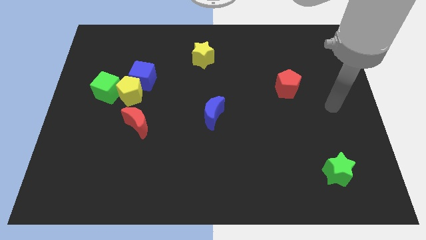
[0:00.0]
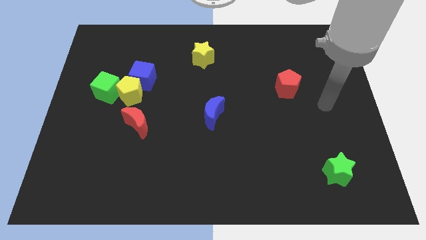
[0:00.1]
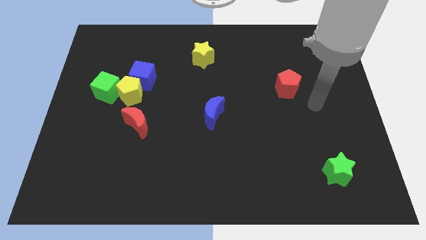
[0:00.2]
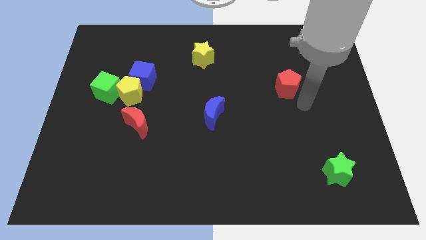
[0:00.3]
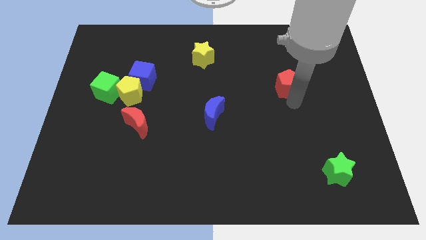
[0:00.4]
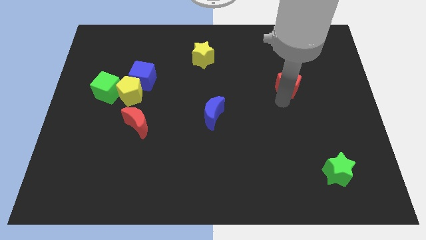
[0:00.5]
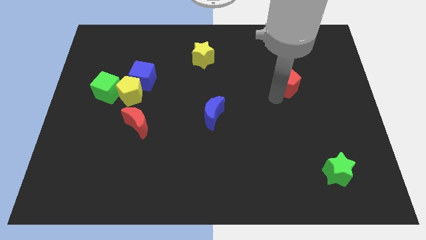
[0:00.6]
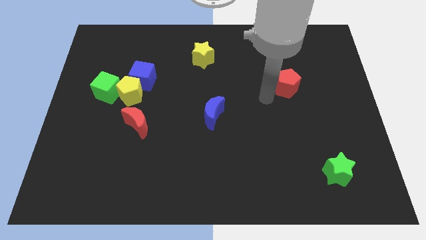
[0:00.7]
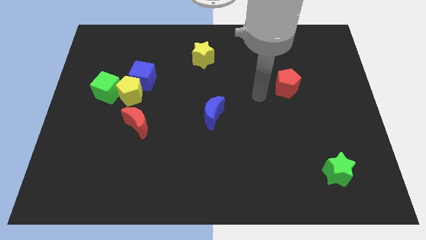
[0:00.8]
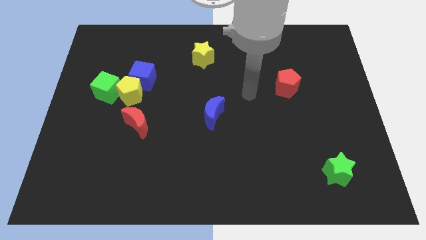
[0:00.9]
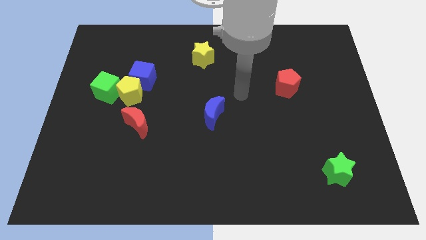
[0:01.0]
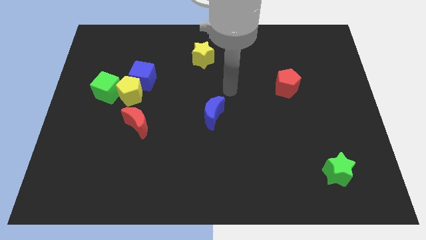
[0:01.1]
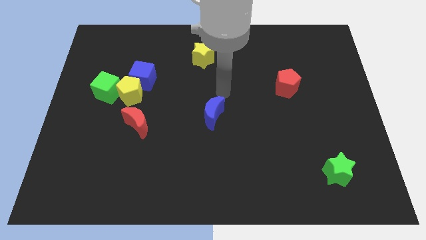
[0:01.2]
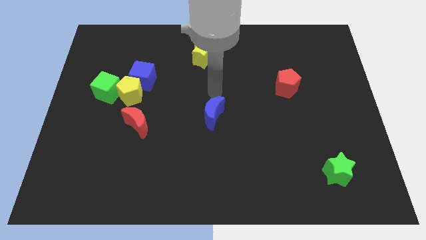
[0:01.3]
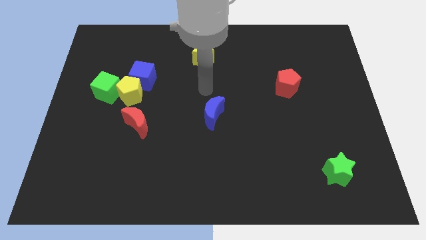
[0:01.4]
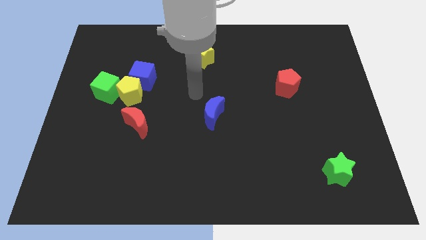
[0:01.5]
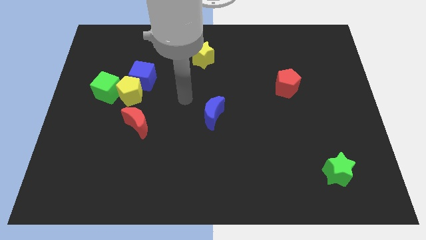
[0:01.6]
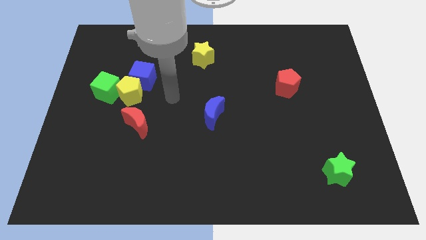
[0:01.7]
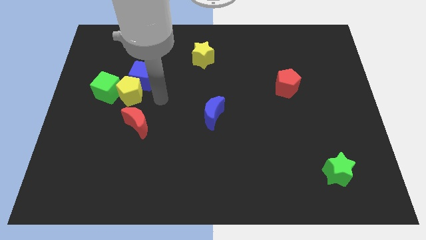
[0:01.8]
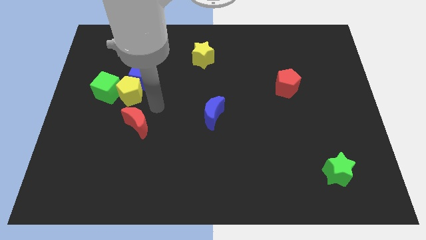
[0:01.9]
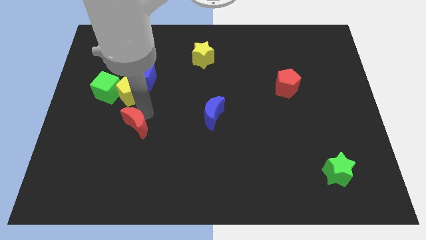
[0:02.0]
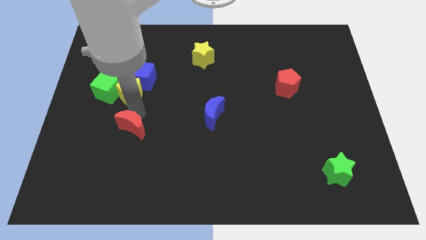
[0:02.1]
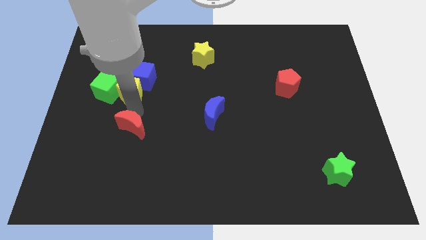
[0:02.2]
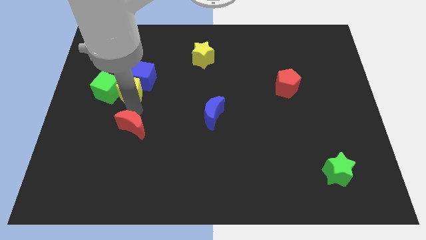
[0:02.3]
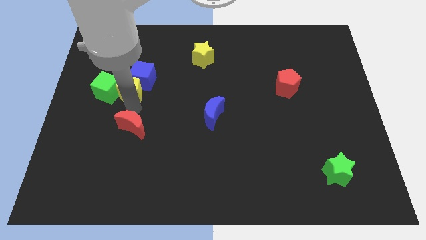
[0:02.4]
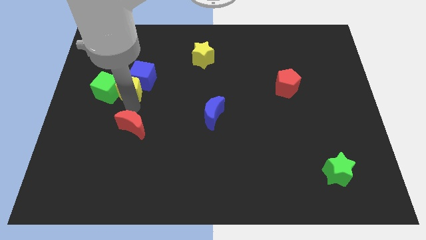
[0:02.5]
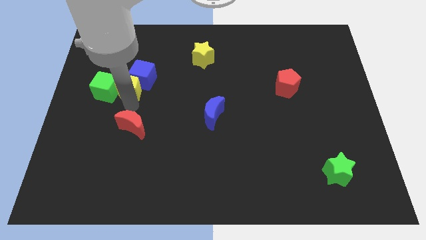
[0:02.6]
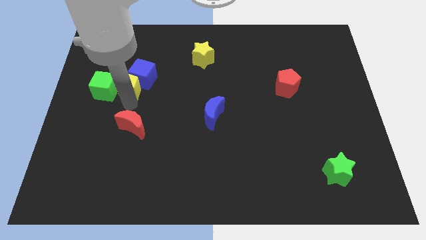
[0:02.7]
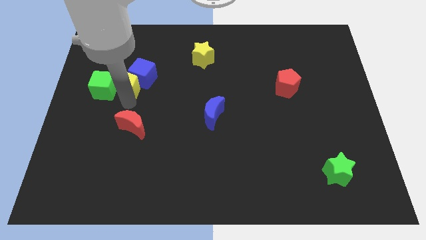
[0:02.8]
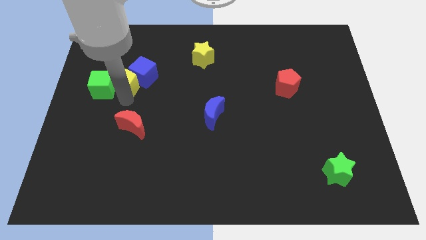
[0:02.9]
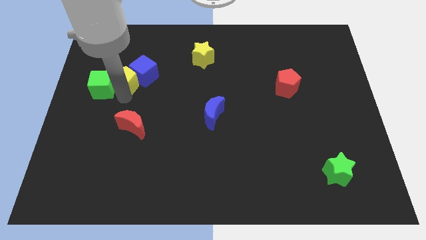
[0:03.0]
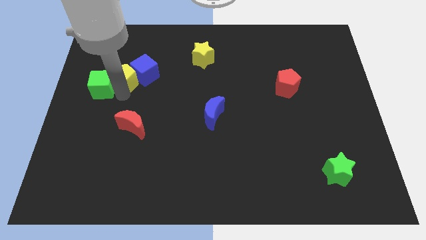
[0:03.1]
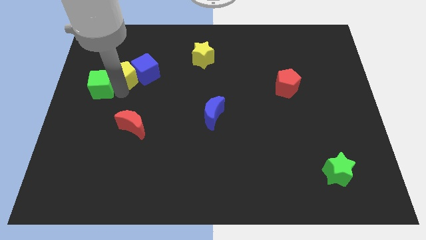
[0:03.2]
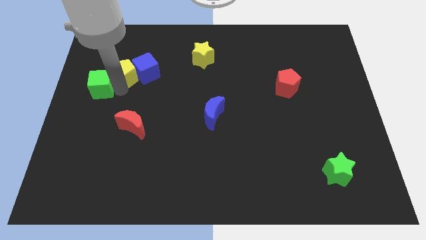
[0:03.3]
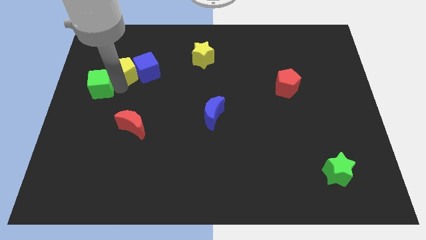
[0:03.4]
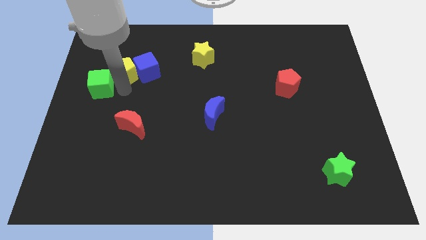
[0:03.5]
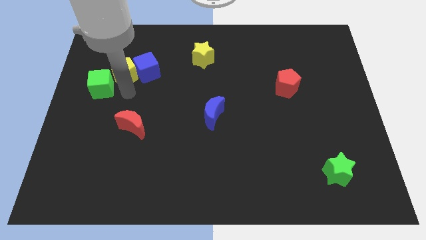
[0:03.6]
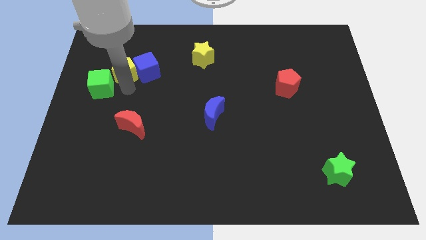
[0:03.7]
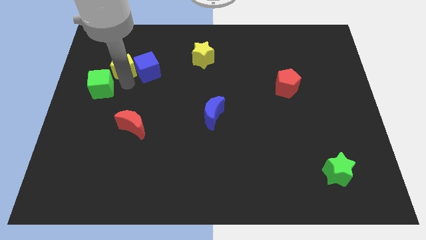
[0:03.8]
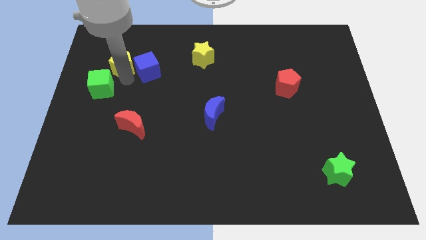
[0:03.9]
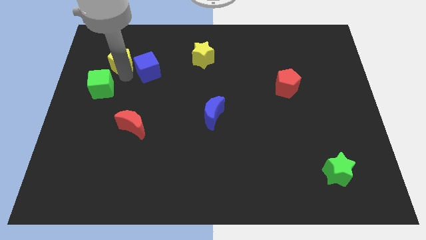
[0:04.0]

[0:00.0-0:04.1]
separate the yellow pentagon from the blue cube, green cube, and red moon

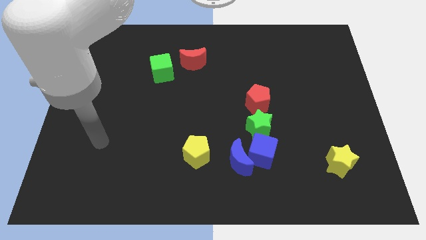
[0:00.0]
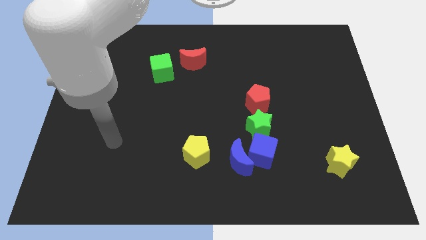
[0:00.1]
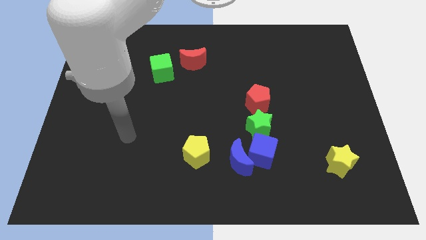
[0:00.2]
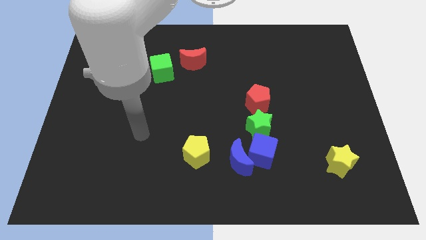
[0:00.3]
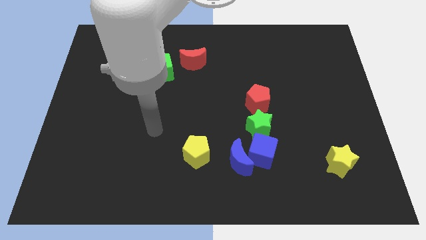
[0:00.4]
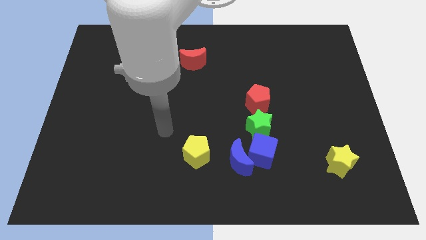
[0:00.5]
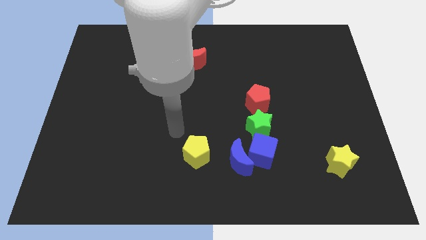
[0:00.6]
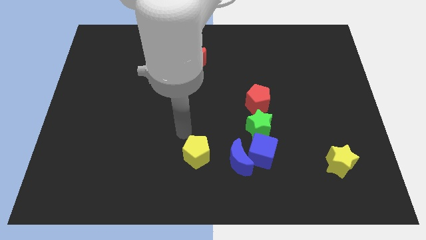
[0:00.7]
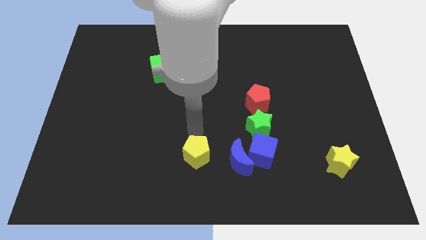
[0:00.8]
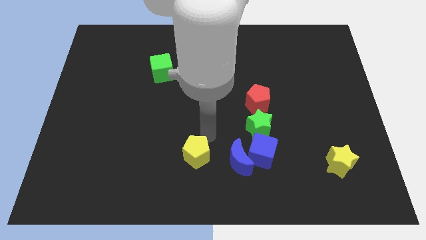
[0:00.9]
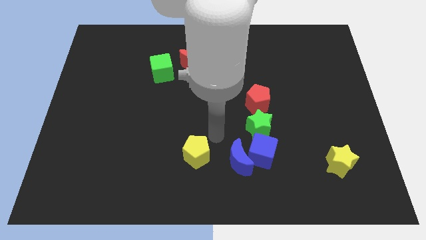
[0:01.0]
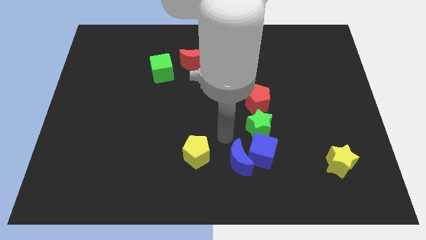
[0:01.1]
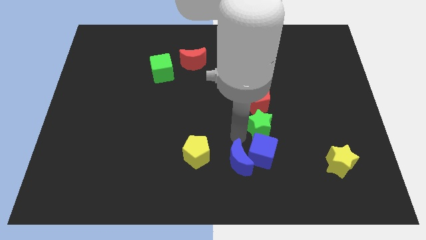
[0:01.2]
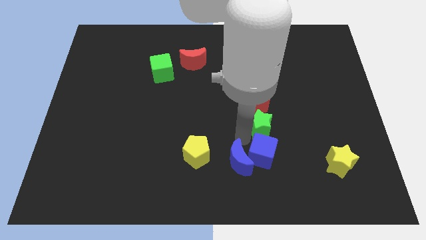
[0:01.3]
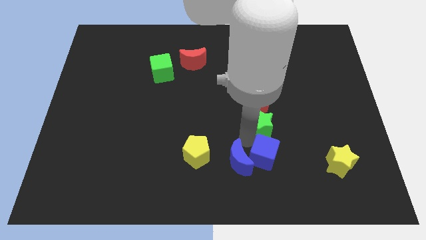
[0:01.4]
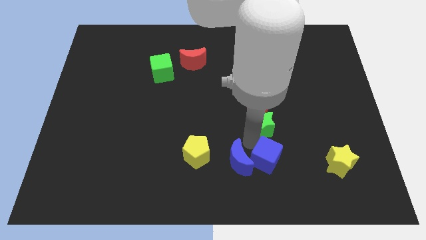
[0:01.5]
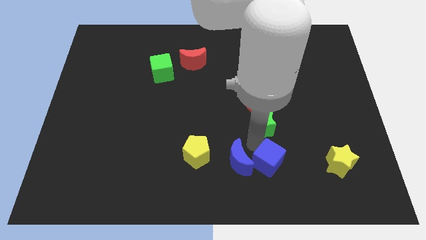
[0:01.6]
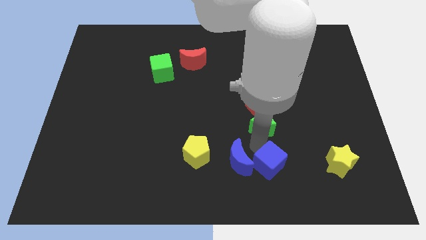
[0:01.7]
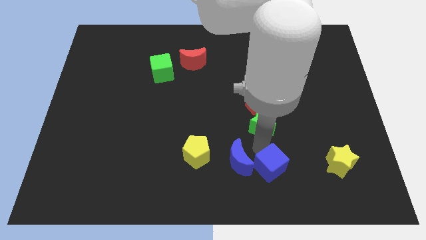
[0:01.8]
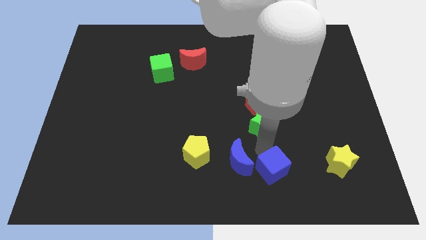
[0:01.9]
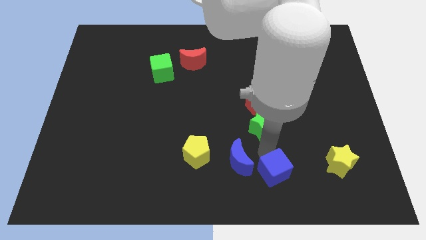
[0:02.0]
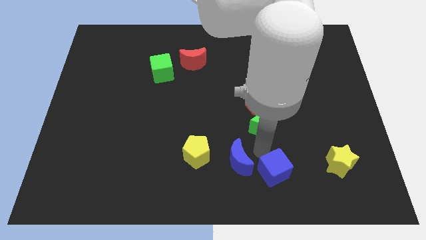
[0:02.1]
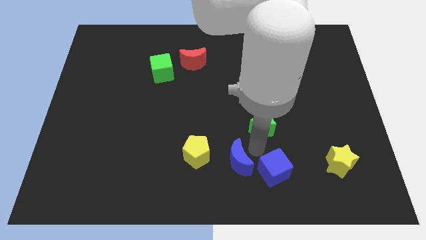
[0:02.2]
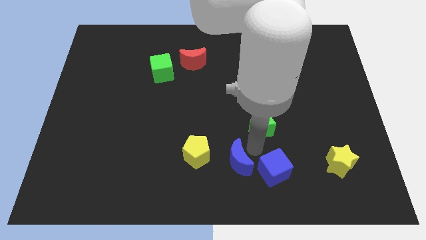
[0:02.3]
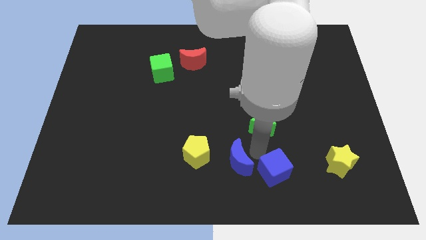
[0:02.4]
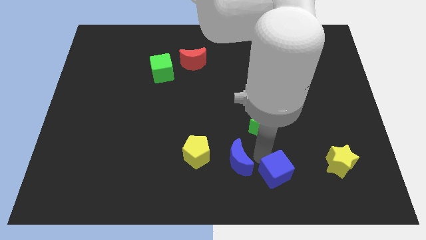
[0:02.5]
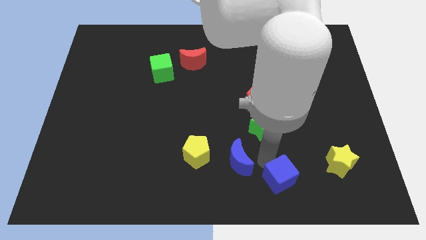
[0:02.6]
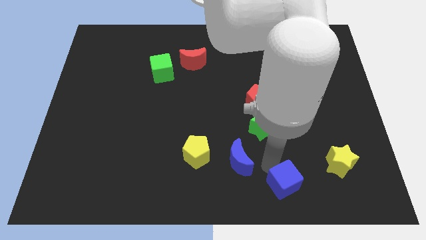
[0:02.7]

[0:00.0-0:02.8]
move the blue cube away from the blue moon and green star

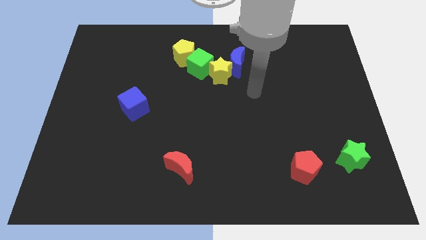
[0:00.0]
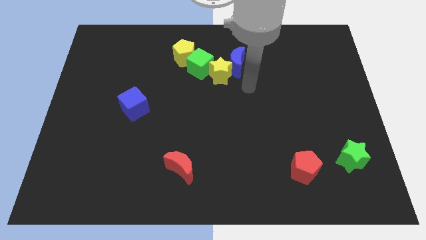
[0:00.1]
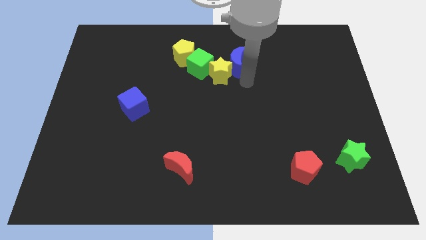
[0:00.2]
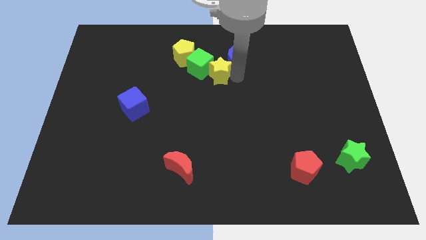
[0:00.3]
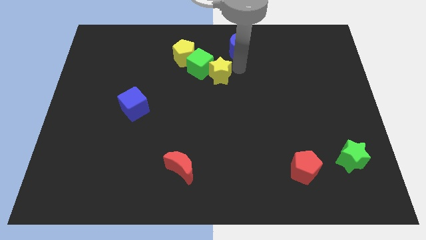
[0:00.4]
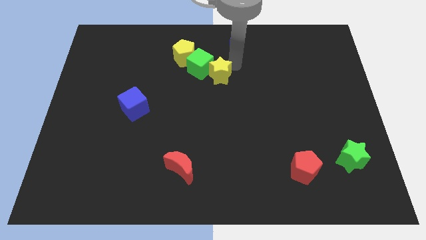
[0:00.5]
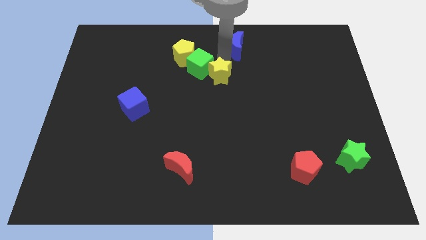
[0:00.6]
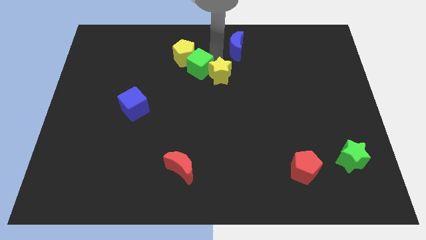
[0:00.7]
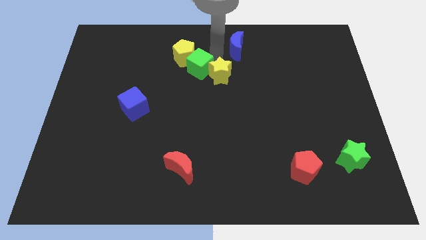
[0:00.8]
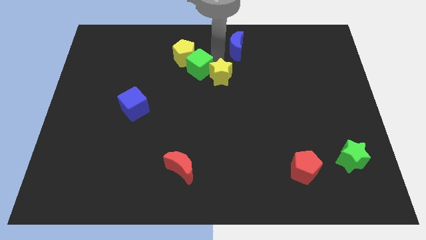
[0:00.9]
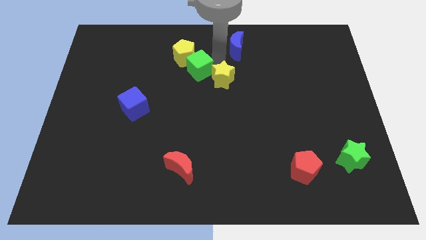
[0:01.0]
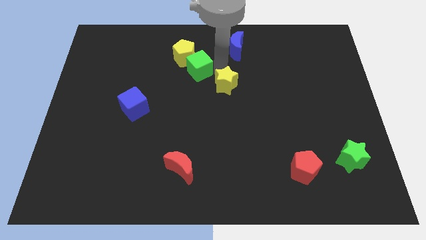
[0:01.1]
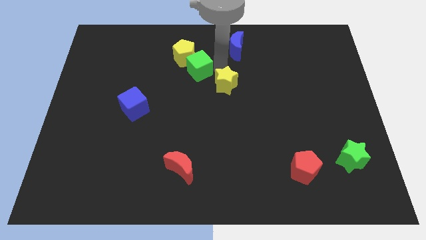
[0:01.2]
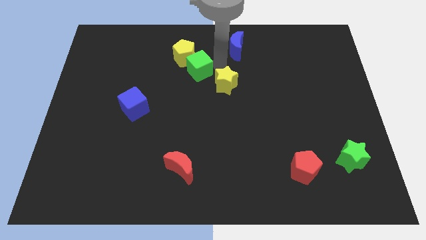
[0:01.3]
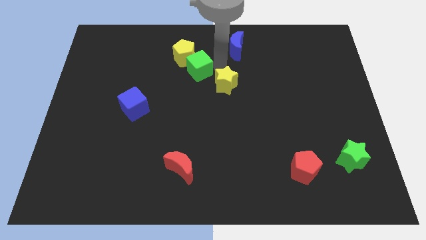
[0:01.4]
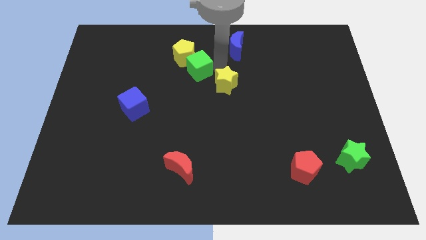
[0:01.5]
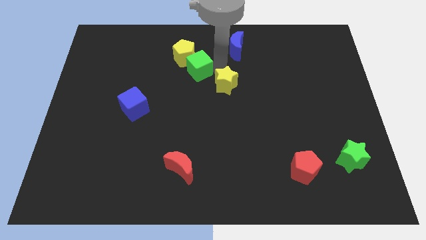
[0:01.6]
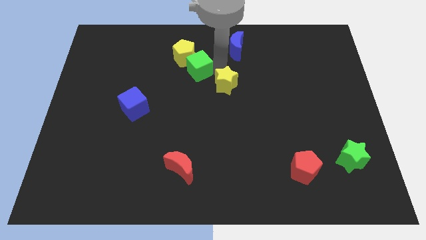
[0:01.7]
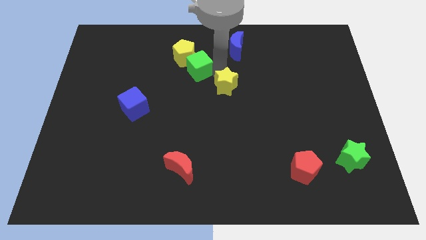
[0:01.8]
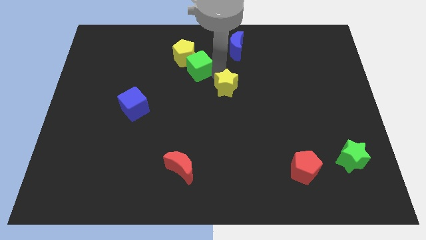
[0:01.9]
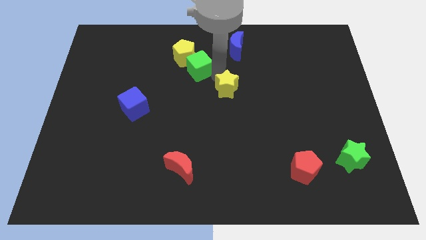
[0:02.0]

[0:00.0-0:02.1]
separate the yellow star from the blue moon and green cube

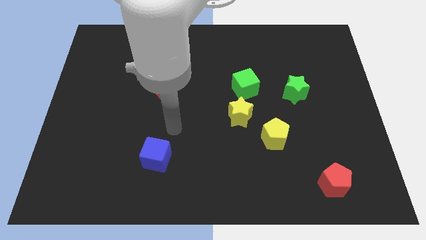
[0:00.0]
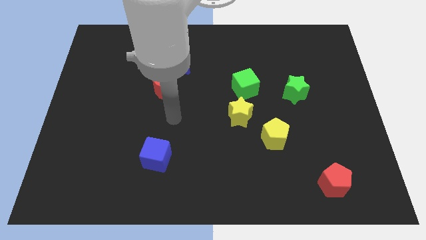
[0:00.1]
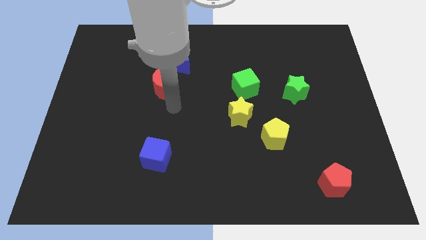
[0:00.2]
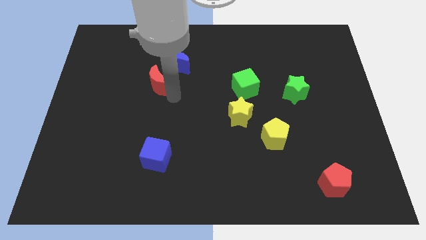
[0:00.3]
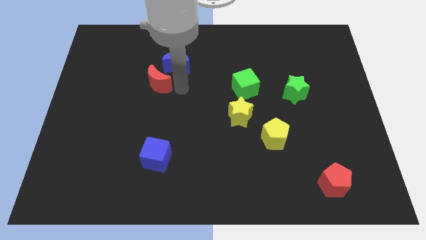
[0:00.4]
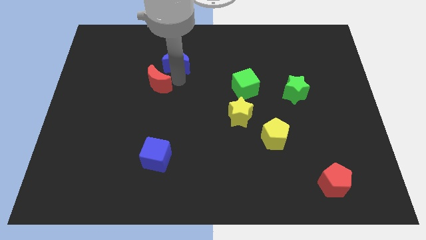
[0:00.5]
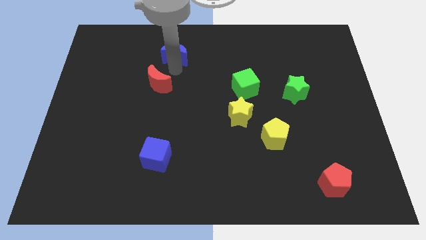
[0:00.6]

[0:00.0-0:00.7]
move the red moon away from the blue moon
